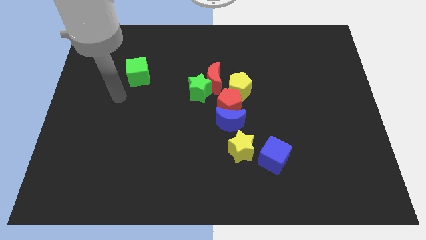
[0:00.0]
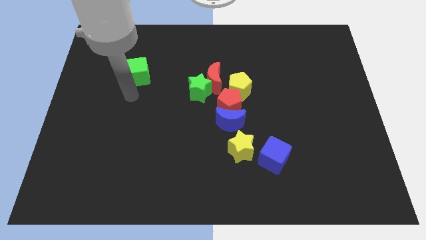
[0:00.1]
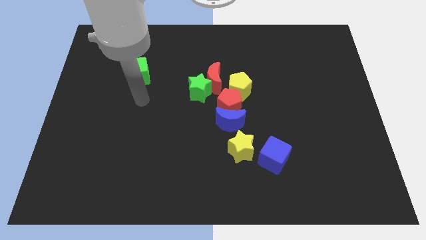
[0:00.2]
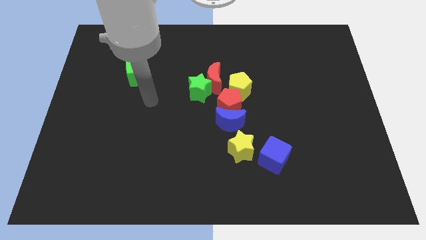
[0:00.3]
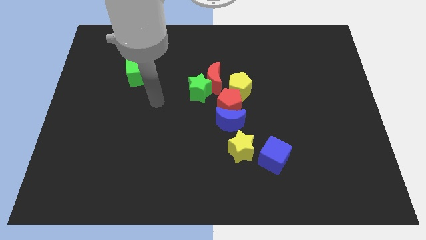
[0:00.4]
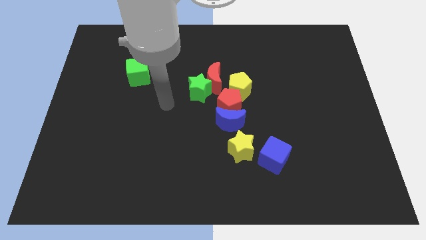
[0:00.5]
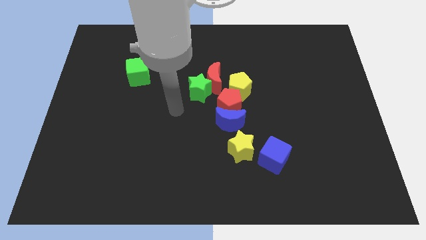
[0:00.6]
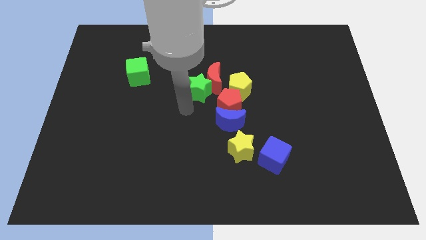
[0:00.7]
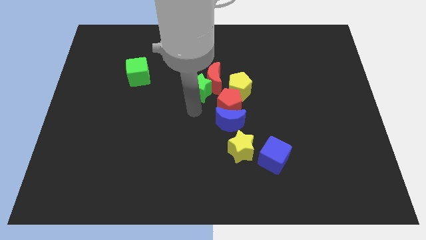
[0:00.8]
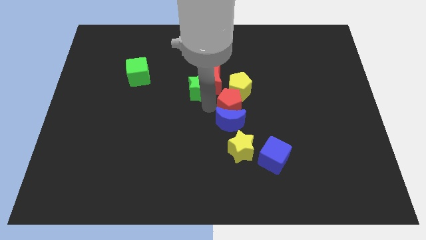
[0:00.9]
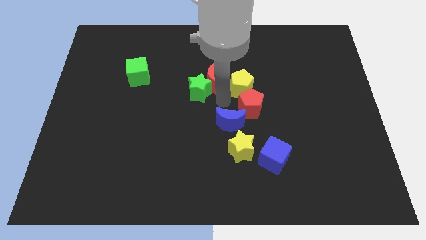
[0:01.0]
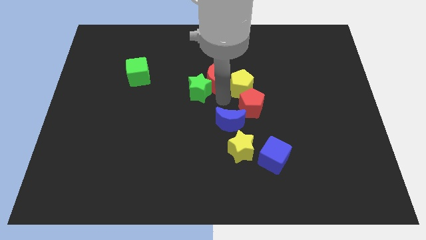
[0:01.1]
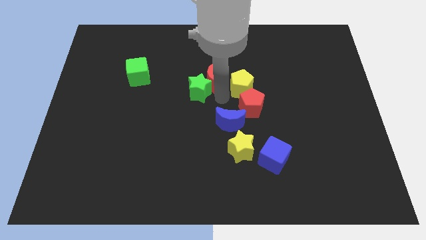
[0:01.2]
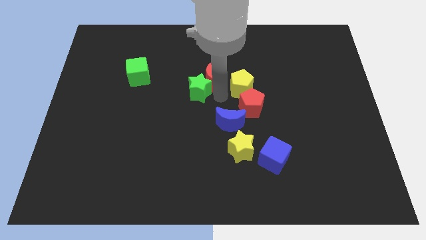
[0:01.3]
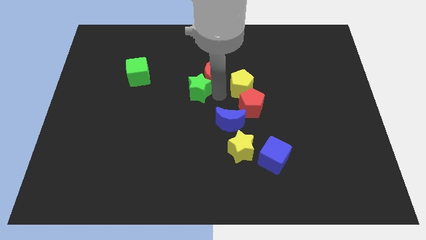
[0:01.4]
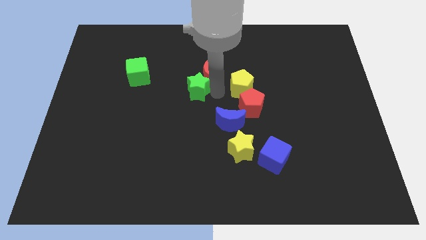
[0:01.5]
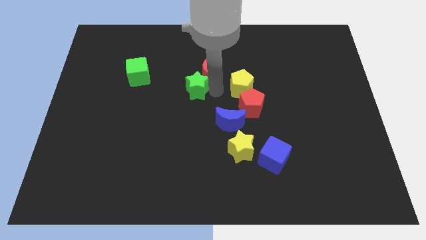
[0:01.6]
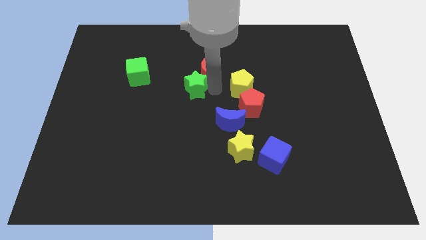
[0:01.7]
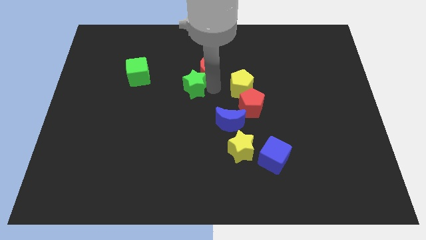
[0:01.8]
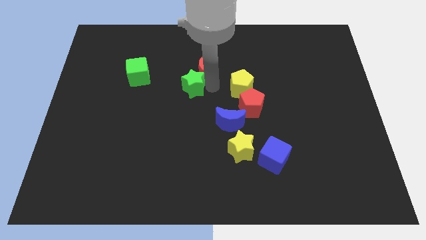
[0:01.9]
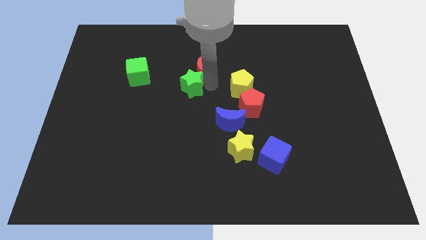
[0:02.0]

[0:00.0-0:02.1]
pull the red moon apart from the green star, yellow pentagon, and red pentagon

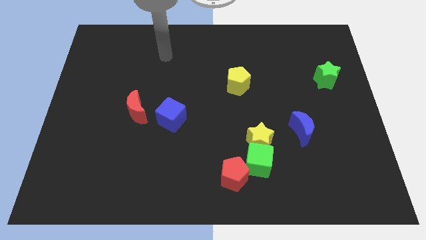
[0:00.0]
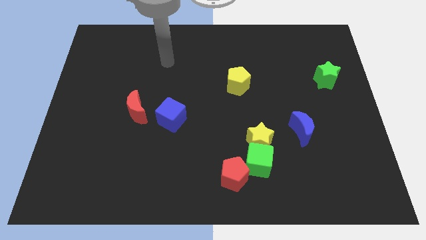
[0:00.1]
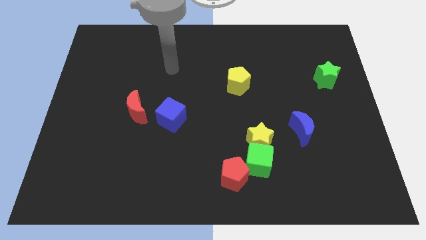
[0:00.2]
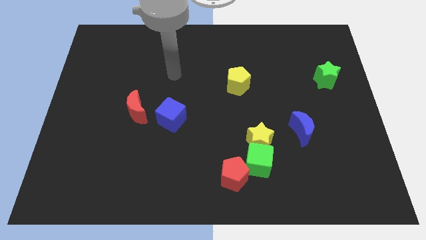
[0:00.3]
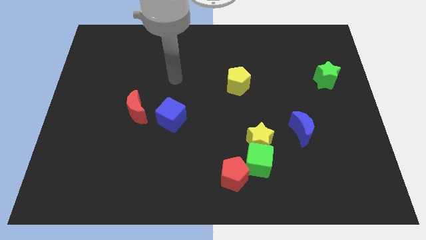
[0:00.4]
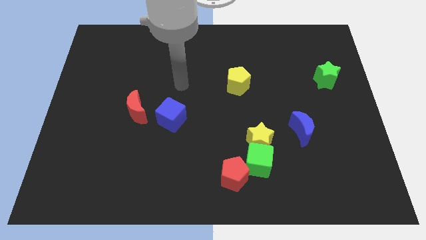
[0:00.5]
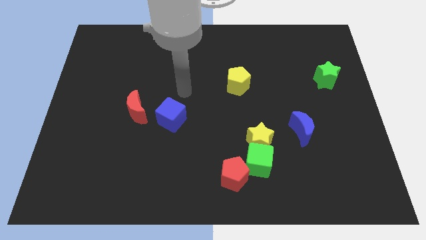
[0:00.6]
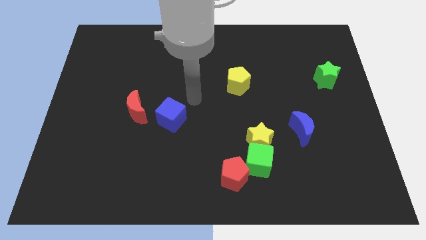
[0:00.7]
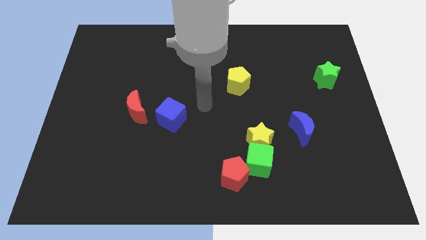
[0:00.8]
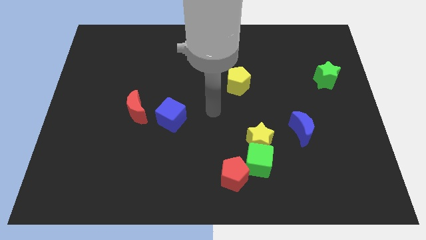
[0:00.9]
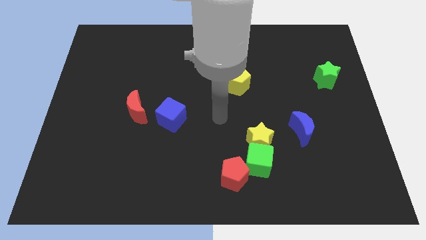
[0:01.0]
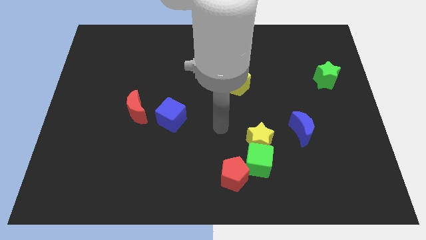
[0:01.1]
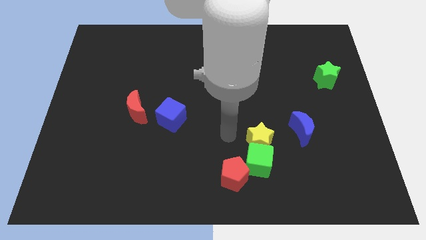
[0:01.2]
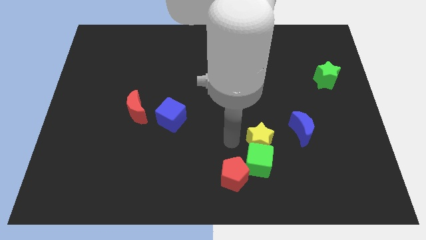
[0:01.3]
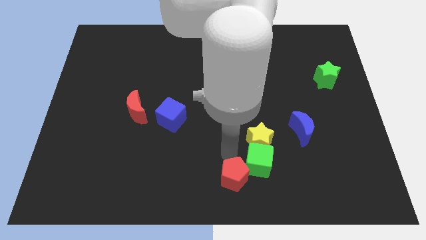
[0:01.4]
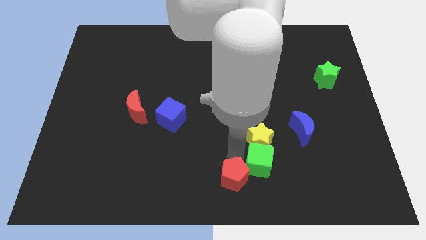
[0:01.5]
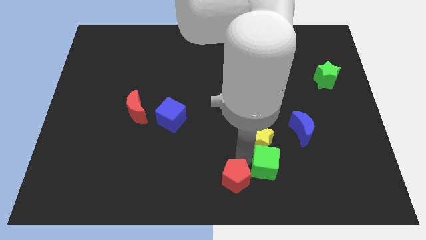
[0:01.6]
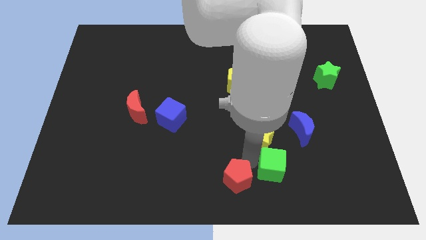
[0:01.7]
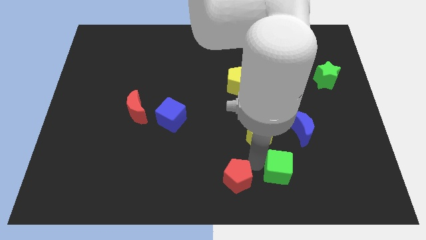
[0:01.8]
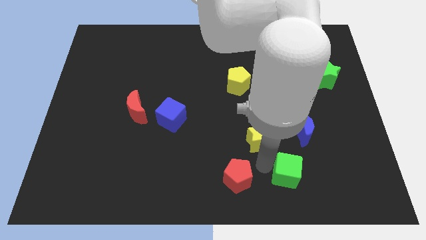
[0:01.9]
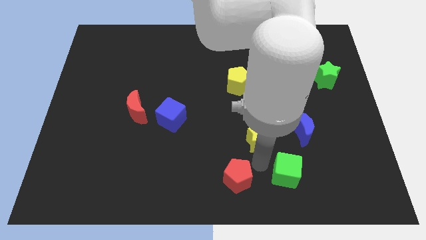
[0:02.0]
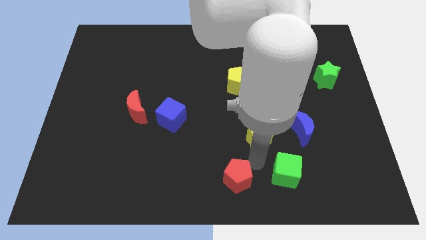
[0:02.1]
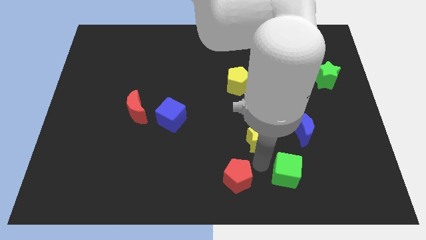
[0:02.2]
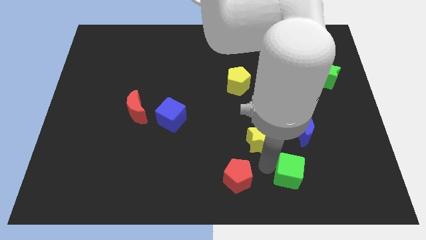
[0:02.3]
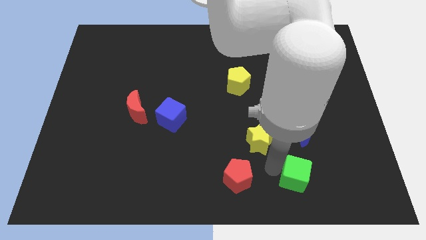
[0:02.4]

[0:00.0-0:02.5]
separate the green cube from the yellow star and red pentagon

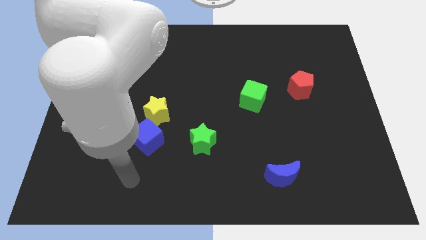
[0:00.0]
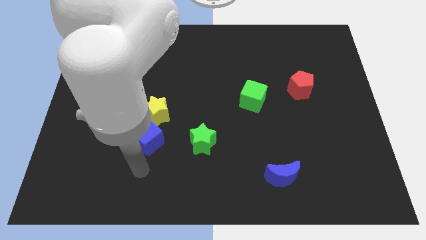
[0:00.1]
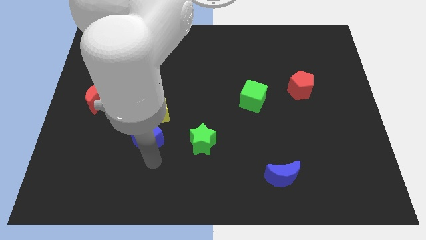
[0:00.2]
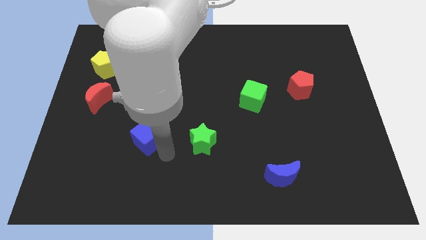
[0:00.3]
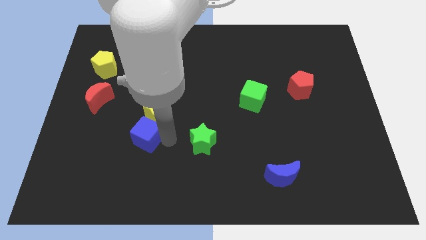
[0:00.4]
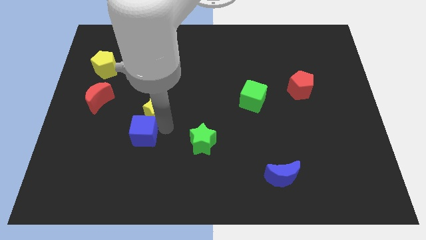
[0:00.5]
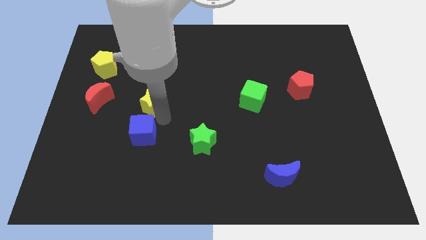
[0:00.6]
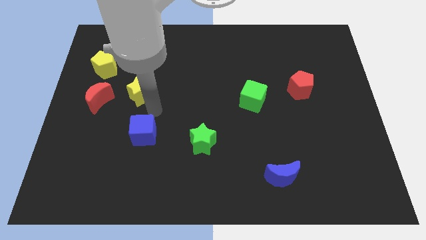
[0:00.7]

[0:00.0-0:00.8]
separate the blue cube from the yellow star

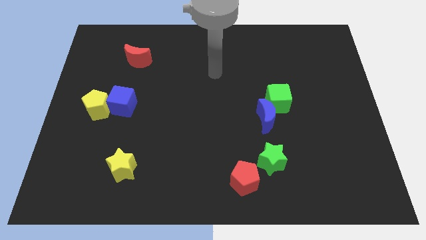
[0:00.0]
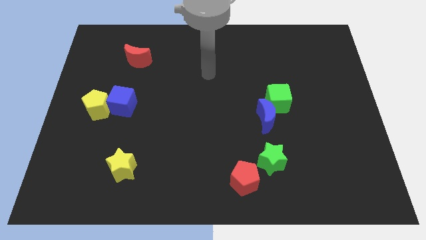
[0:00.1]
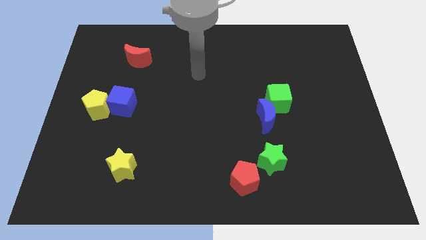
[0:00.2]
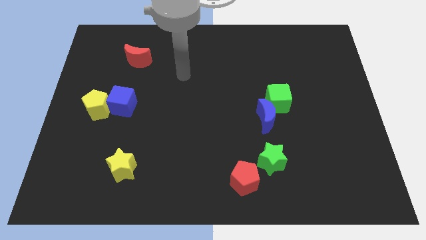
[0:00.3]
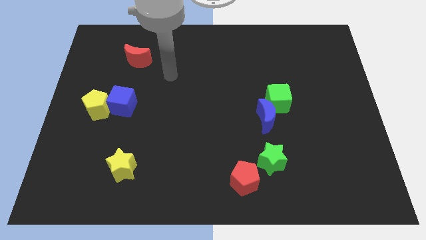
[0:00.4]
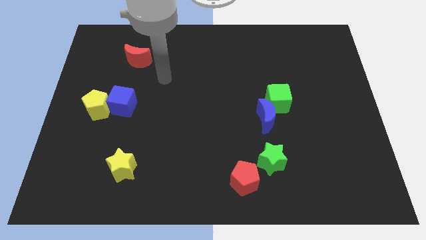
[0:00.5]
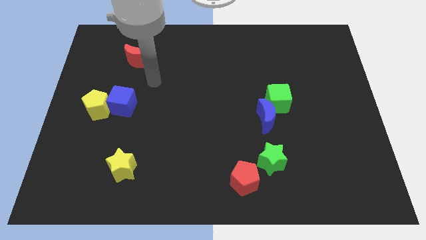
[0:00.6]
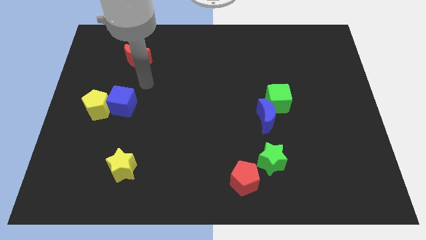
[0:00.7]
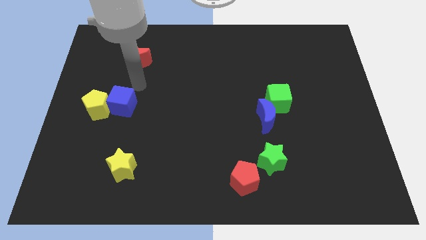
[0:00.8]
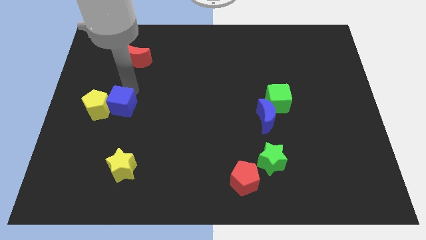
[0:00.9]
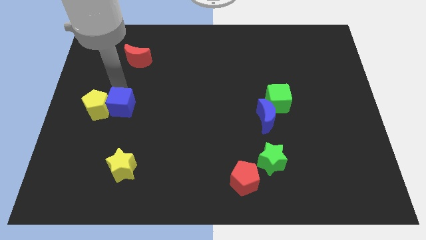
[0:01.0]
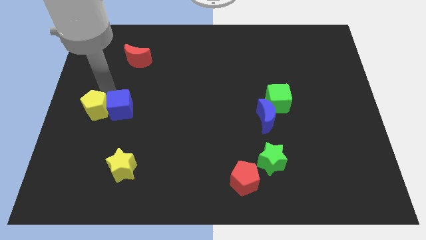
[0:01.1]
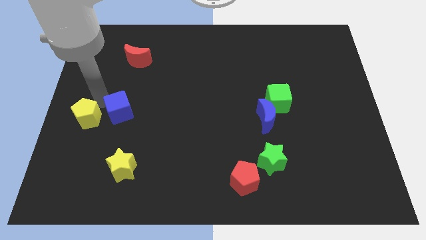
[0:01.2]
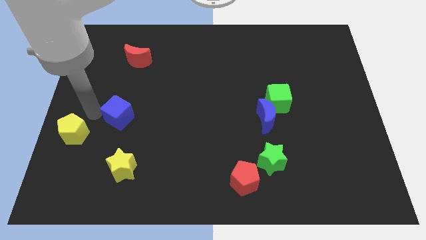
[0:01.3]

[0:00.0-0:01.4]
move the blue cube away from the yellow pentagon

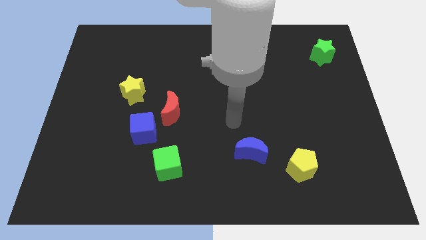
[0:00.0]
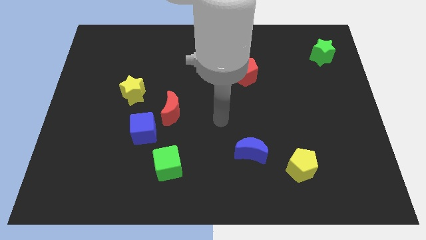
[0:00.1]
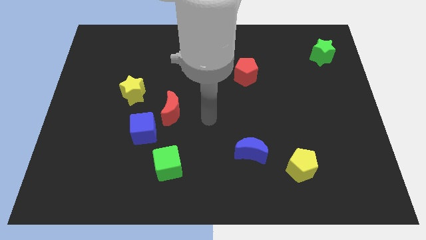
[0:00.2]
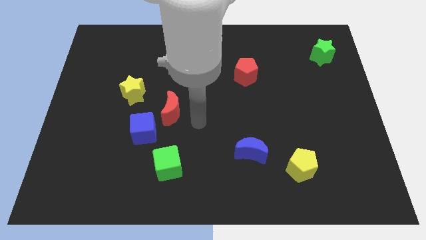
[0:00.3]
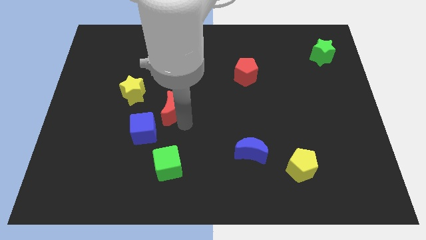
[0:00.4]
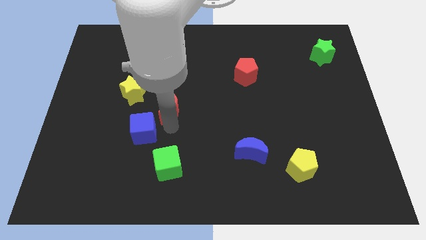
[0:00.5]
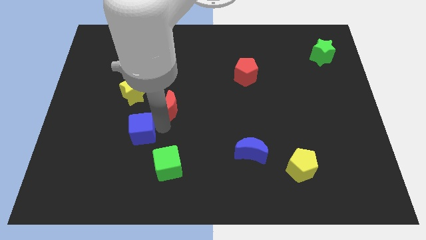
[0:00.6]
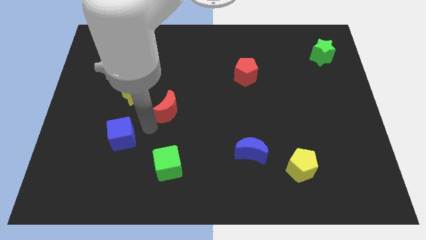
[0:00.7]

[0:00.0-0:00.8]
pull the red moon apart from the blue cube

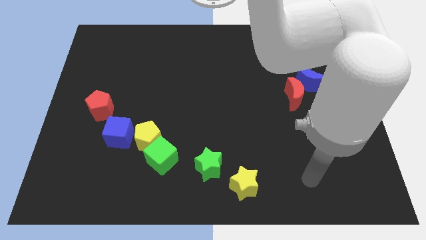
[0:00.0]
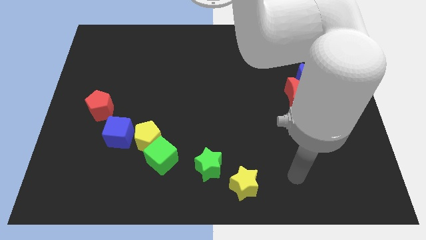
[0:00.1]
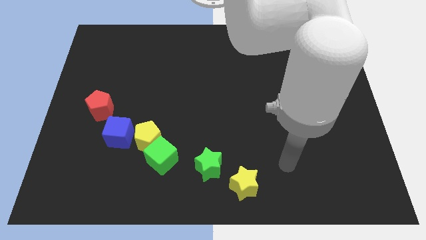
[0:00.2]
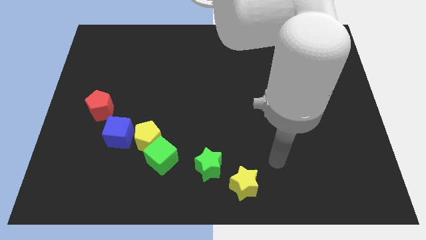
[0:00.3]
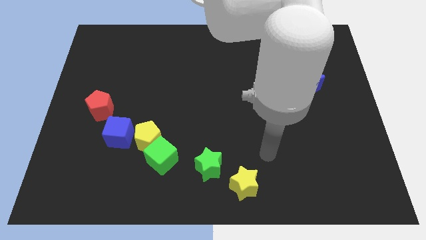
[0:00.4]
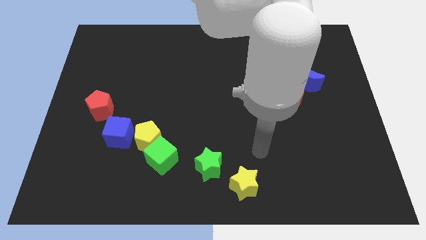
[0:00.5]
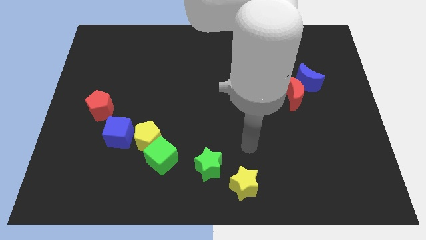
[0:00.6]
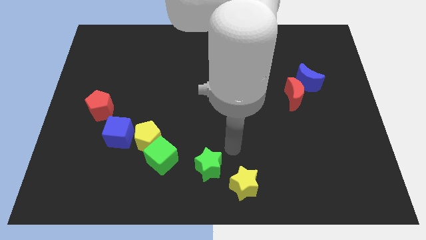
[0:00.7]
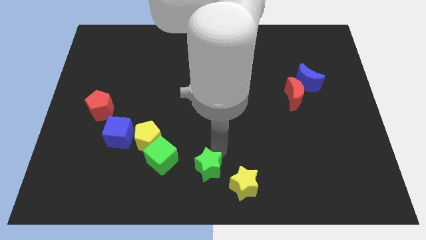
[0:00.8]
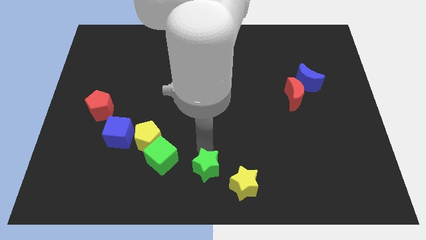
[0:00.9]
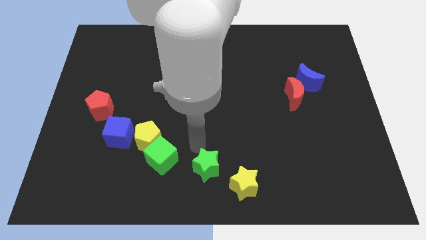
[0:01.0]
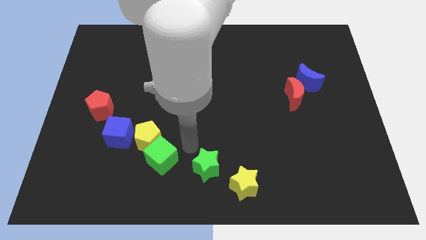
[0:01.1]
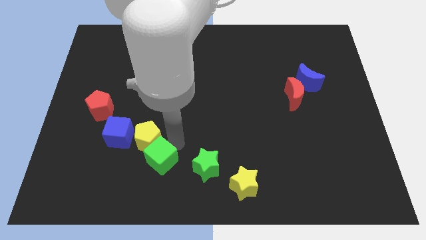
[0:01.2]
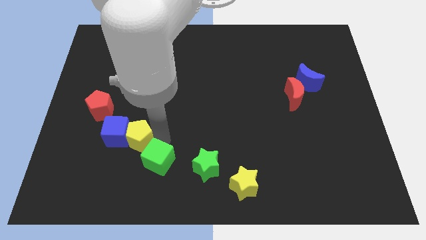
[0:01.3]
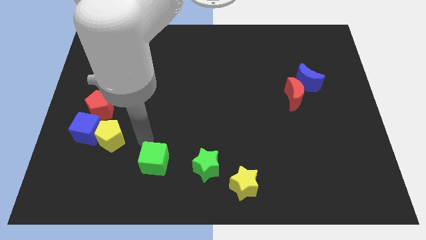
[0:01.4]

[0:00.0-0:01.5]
separate the green cube from the yellow pentagon

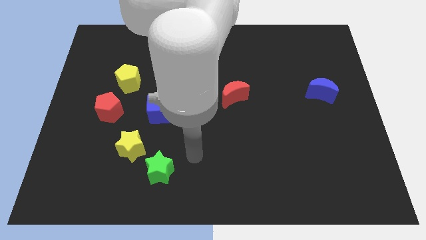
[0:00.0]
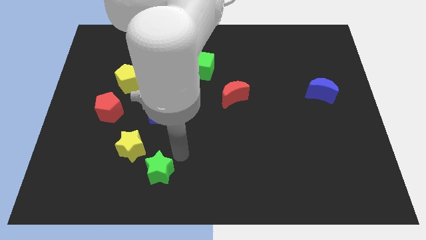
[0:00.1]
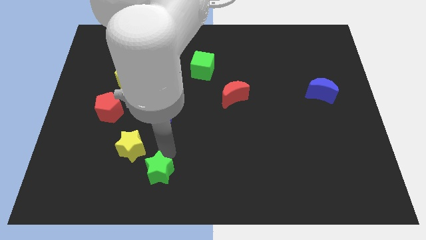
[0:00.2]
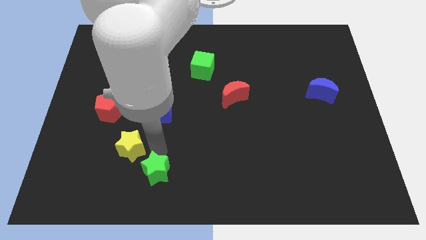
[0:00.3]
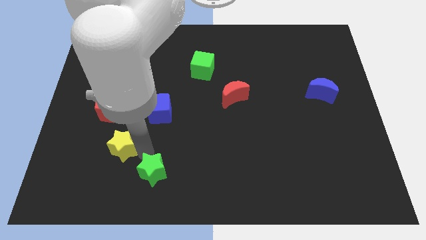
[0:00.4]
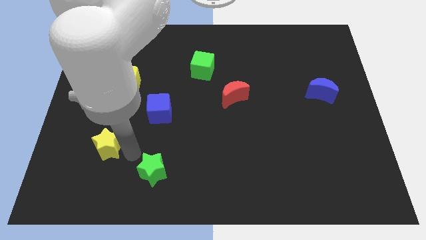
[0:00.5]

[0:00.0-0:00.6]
separate the green star from the yellow star
